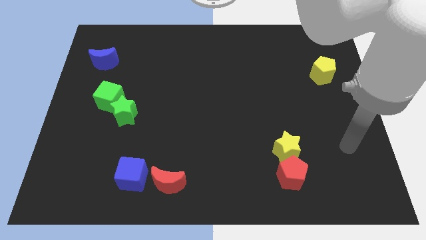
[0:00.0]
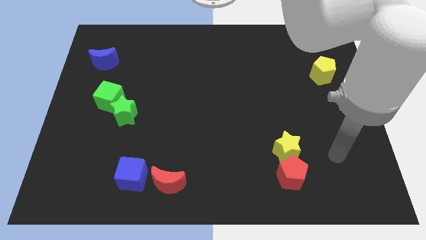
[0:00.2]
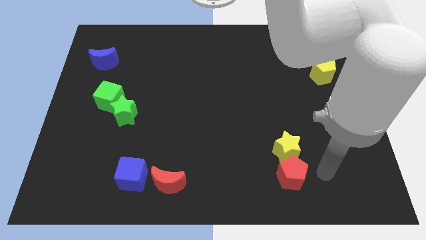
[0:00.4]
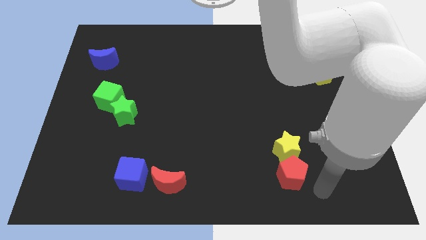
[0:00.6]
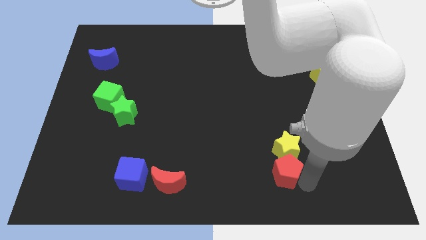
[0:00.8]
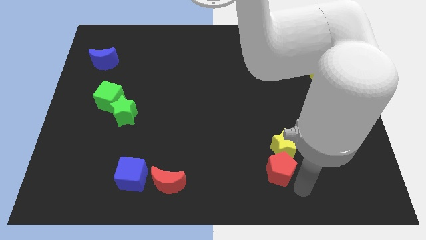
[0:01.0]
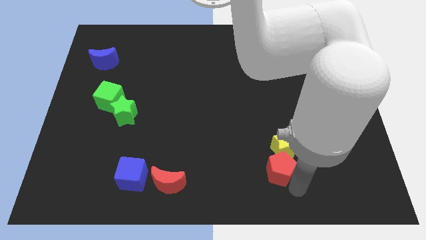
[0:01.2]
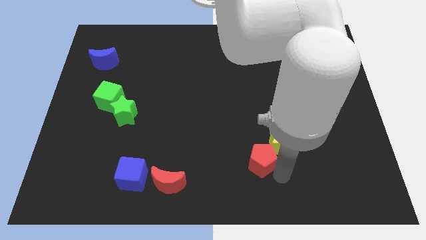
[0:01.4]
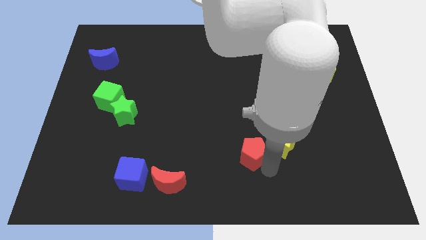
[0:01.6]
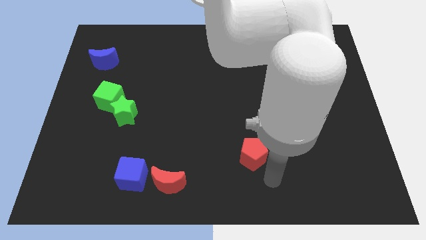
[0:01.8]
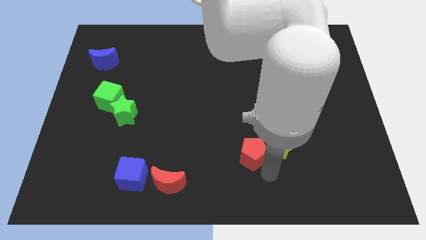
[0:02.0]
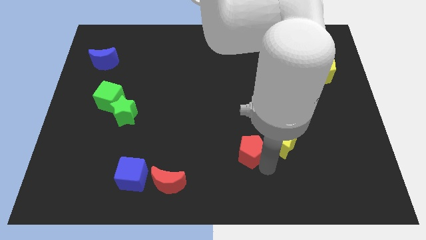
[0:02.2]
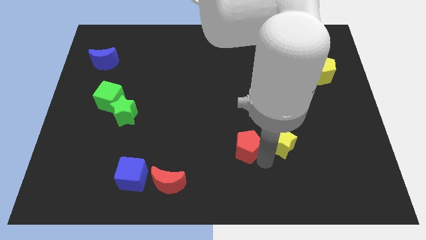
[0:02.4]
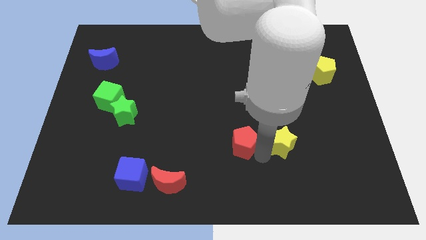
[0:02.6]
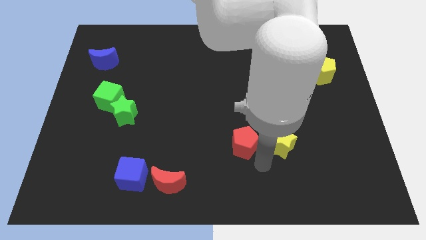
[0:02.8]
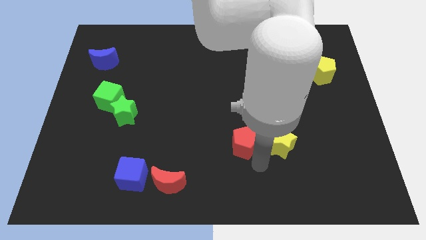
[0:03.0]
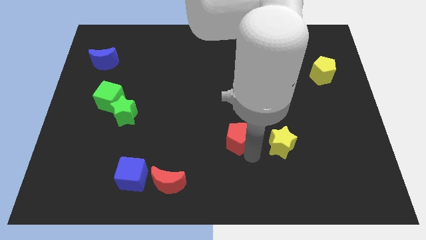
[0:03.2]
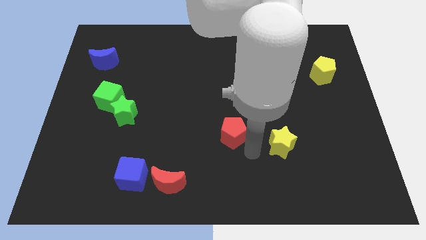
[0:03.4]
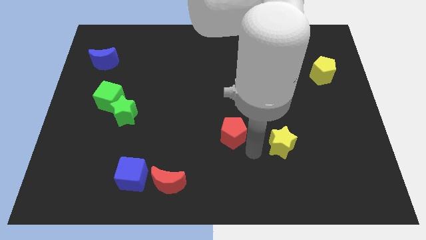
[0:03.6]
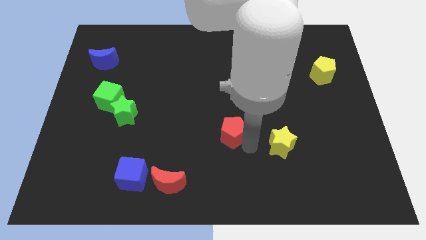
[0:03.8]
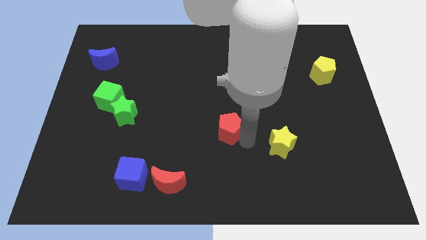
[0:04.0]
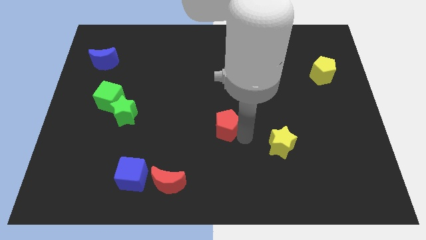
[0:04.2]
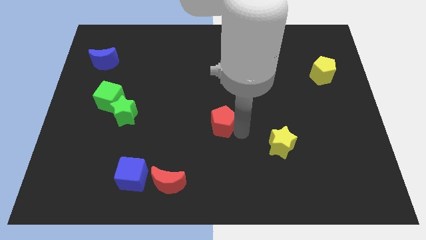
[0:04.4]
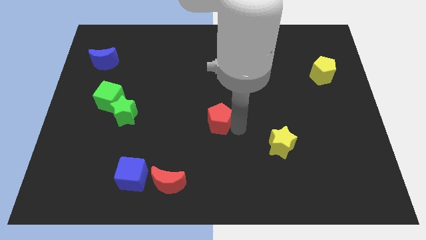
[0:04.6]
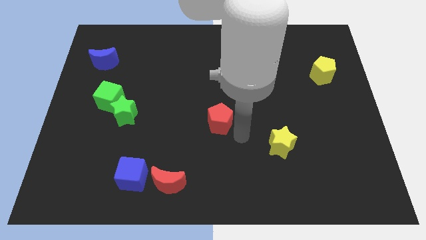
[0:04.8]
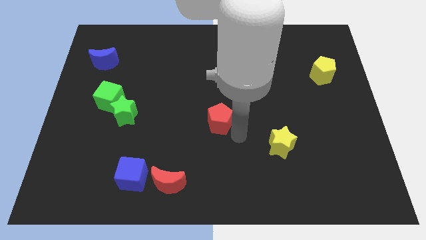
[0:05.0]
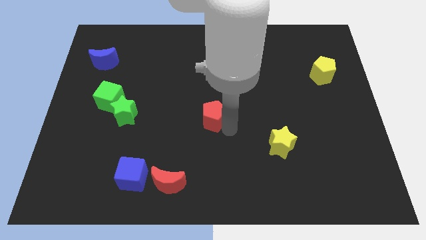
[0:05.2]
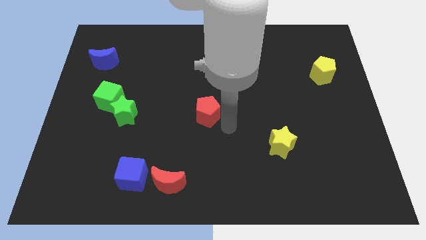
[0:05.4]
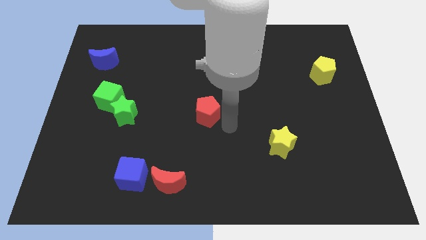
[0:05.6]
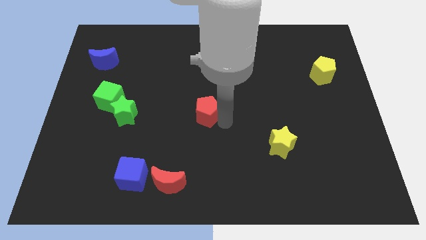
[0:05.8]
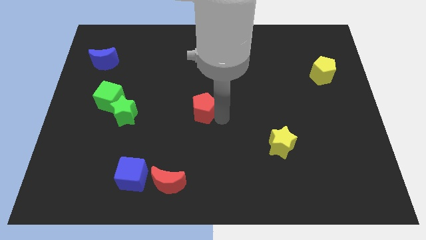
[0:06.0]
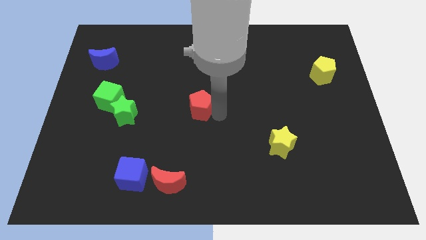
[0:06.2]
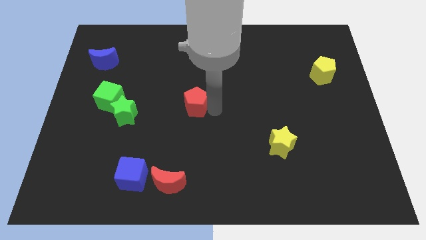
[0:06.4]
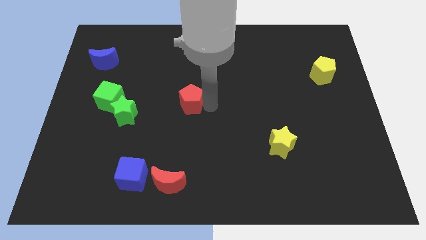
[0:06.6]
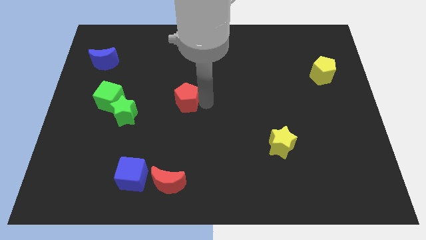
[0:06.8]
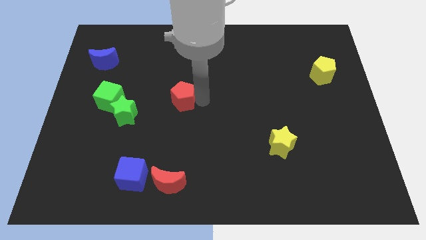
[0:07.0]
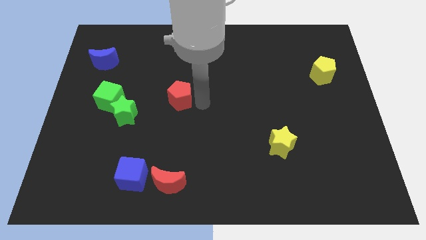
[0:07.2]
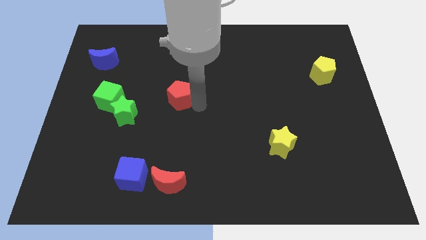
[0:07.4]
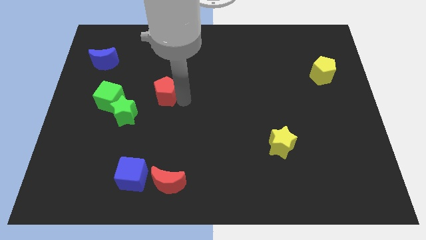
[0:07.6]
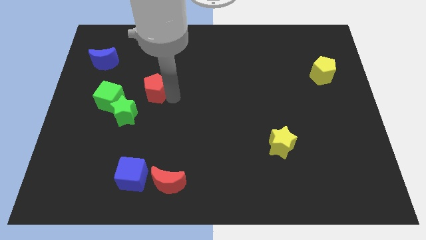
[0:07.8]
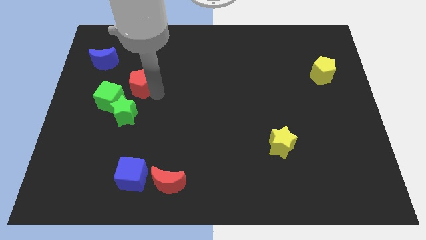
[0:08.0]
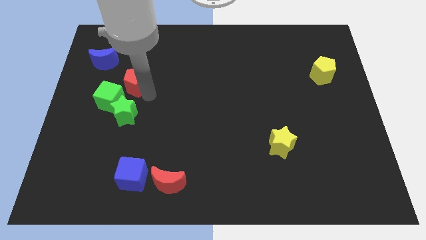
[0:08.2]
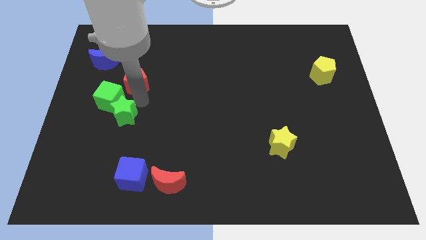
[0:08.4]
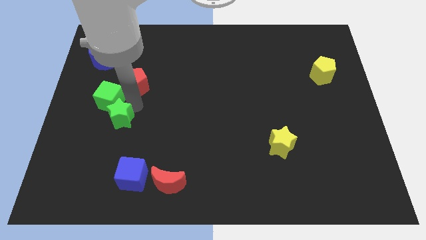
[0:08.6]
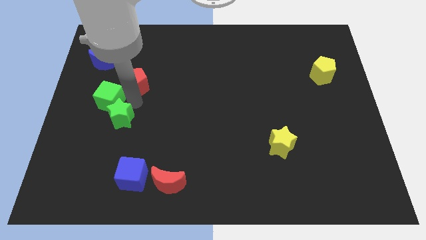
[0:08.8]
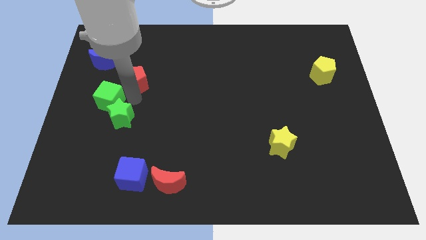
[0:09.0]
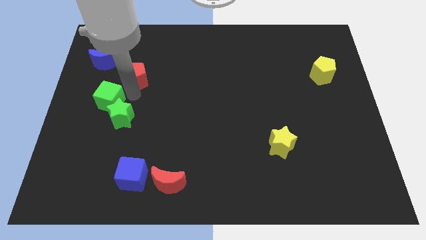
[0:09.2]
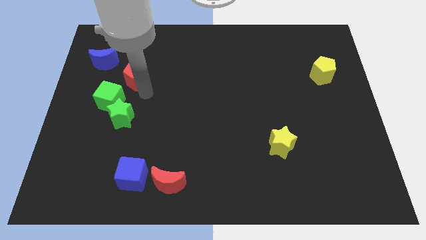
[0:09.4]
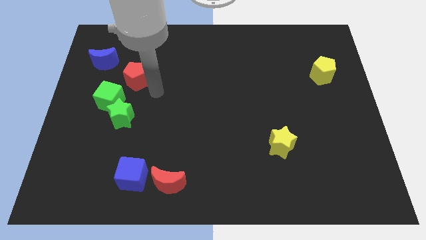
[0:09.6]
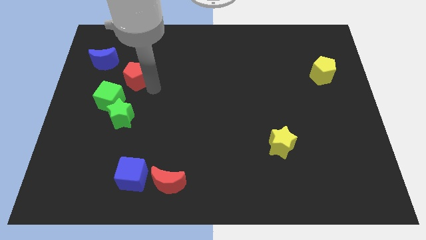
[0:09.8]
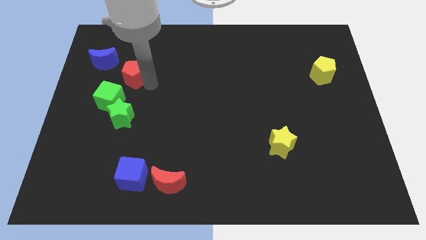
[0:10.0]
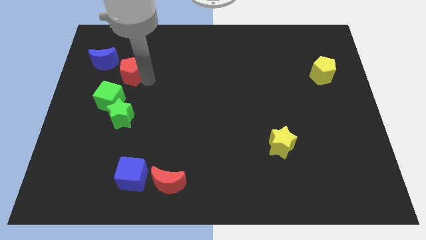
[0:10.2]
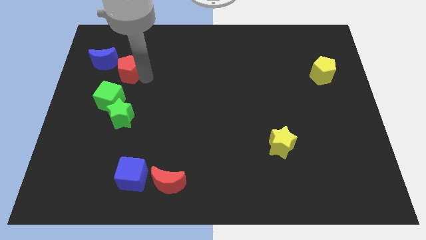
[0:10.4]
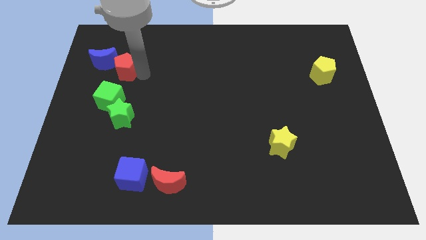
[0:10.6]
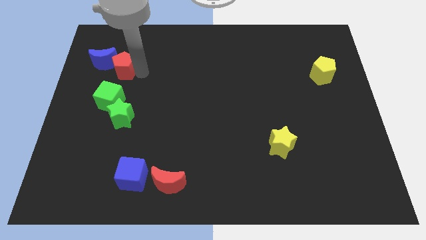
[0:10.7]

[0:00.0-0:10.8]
slide the red pentagon towards the blue moon

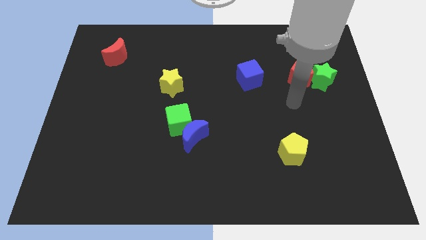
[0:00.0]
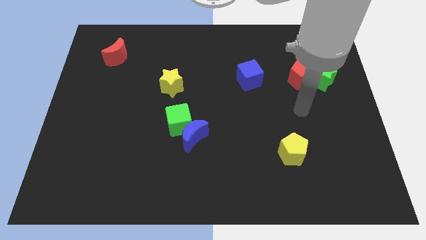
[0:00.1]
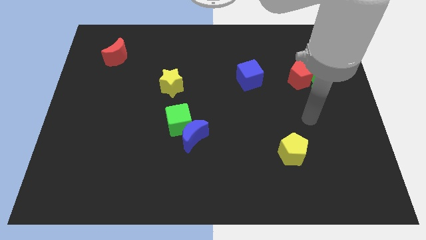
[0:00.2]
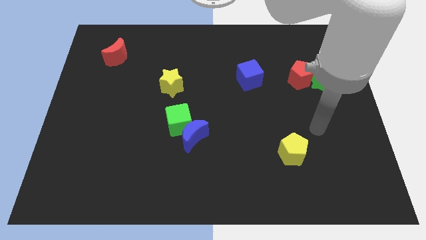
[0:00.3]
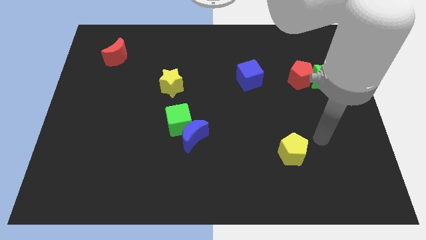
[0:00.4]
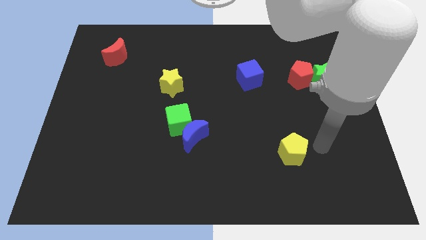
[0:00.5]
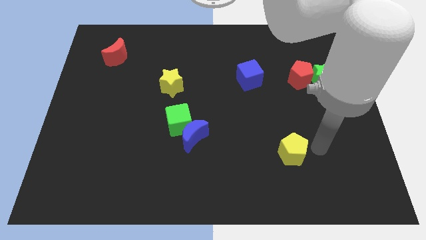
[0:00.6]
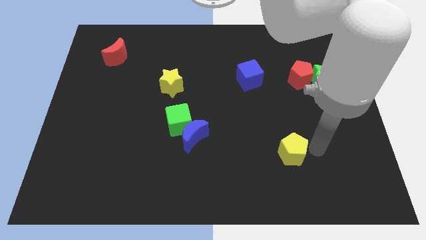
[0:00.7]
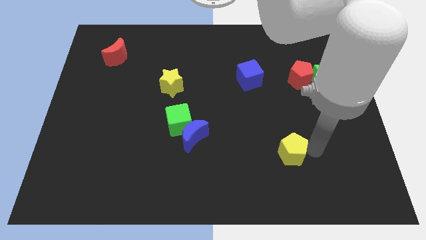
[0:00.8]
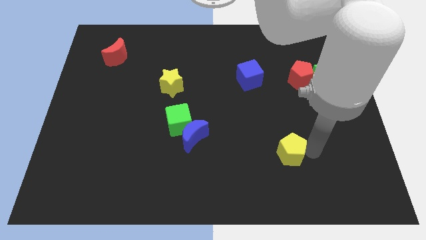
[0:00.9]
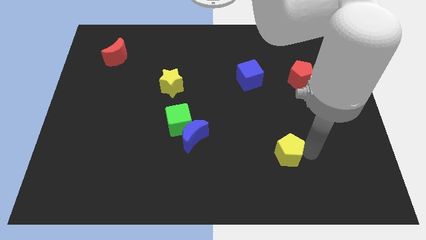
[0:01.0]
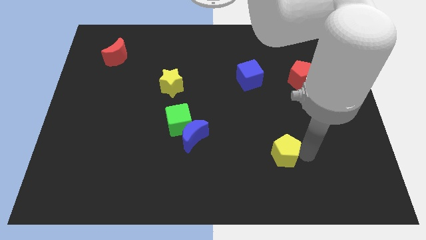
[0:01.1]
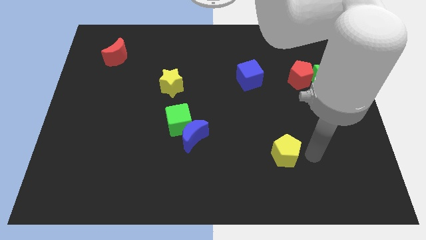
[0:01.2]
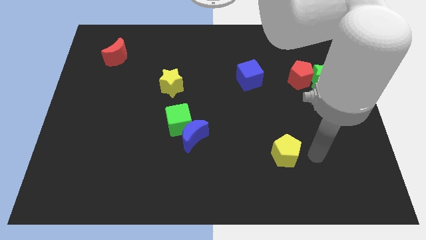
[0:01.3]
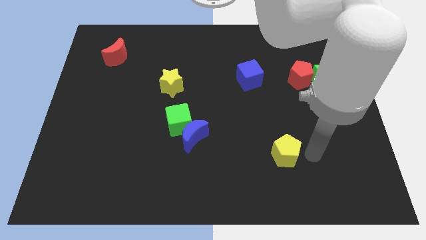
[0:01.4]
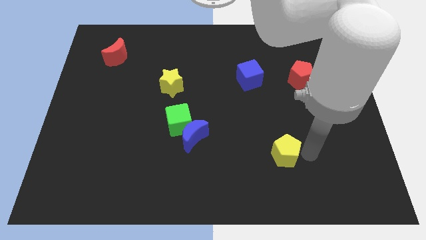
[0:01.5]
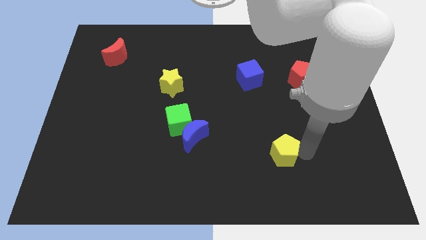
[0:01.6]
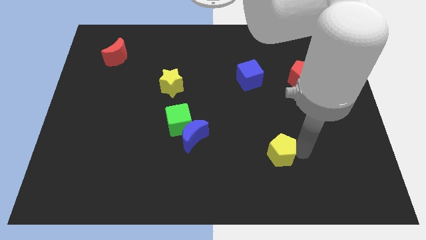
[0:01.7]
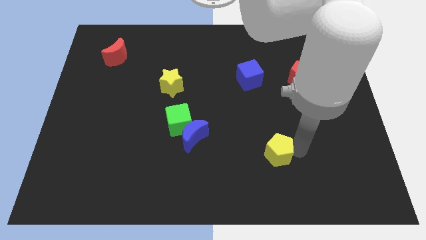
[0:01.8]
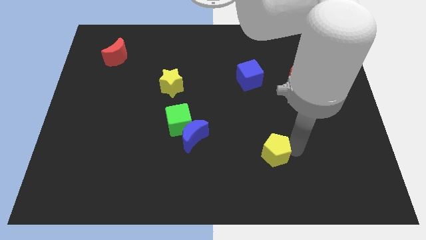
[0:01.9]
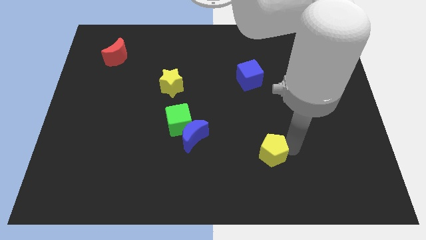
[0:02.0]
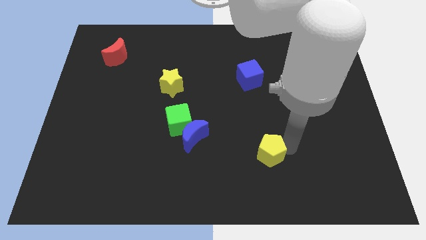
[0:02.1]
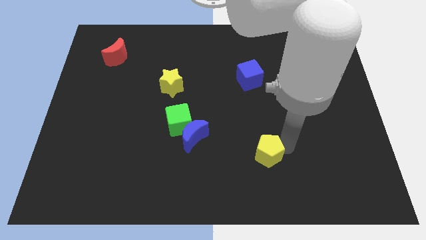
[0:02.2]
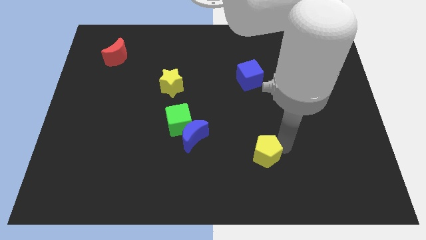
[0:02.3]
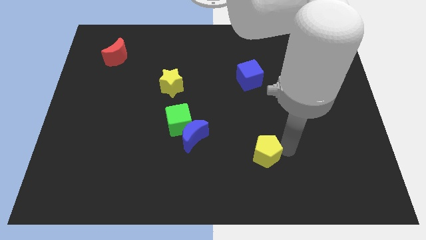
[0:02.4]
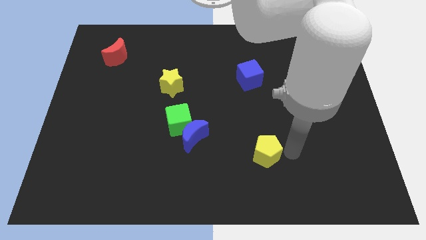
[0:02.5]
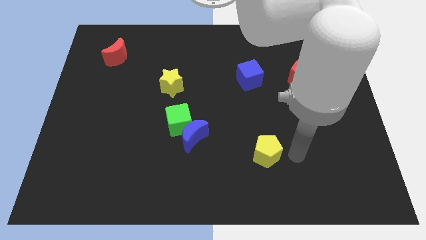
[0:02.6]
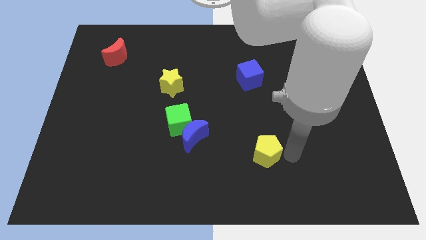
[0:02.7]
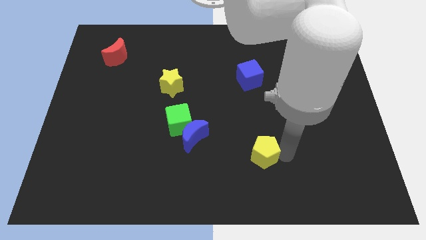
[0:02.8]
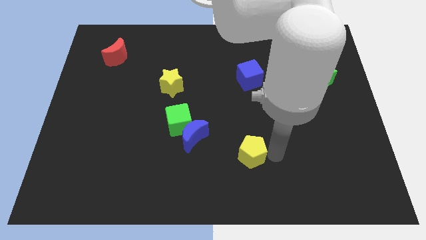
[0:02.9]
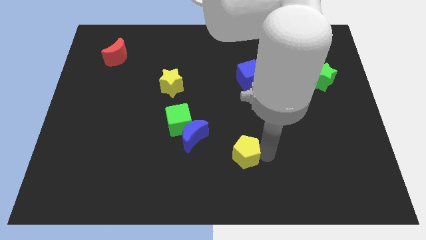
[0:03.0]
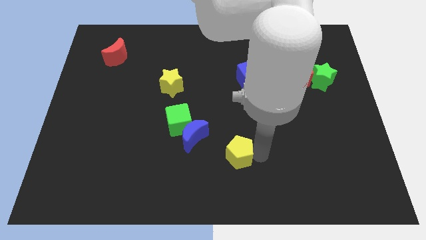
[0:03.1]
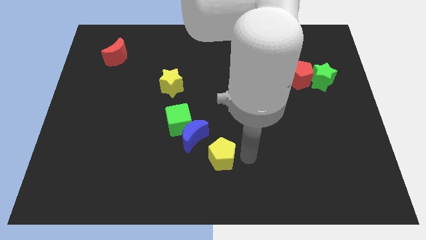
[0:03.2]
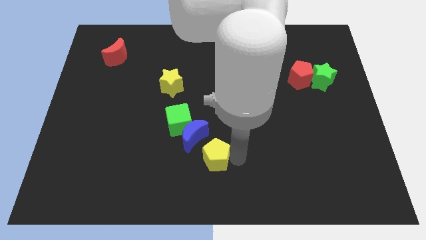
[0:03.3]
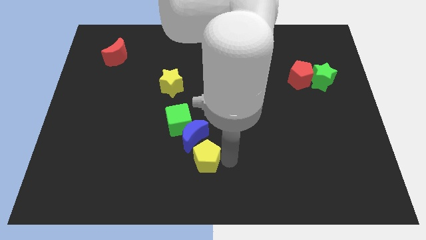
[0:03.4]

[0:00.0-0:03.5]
move the yellow pentagon close to the blue moon
